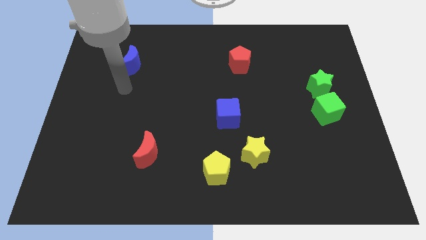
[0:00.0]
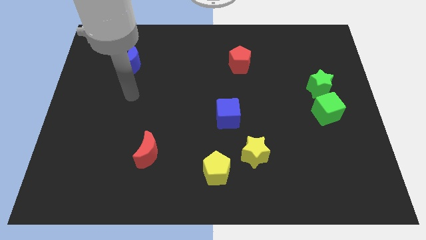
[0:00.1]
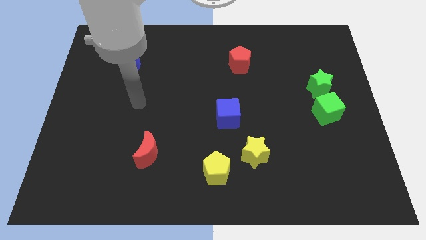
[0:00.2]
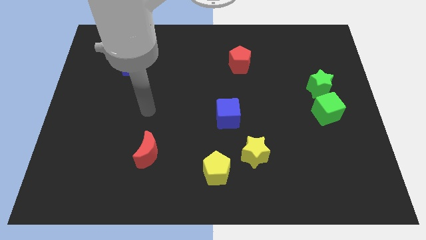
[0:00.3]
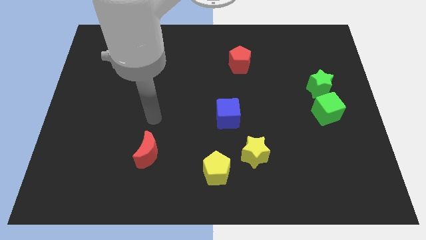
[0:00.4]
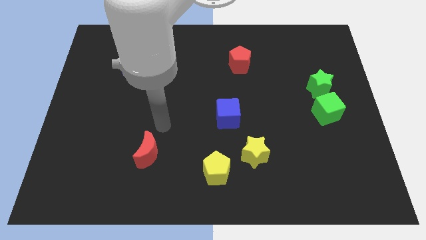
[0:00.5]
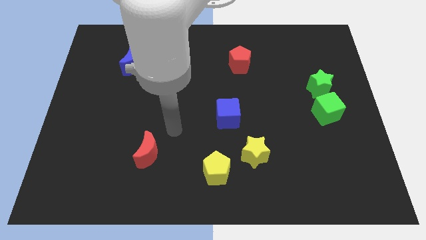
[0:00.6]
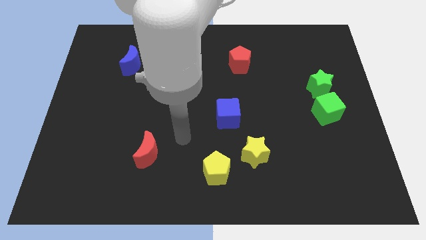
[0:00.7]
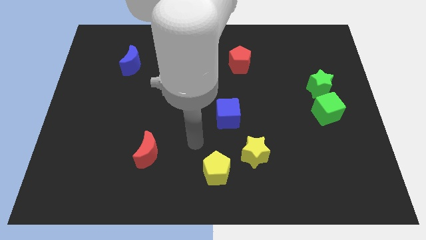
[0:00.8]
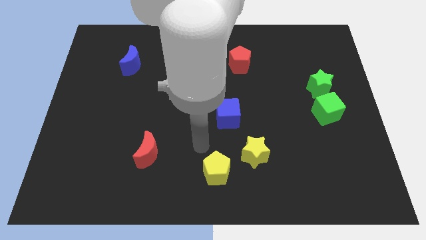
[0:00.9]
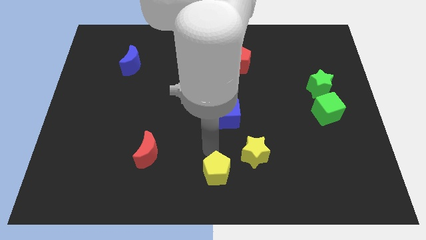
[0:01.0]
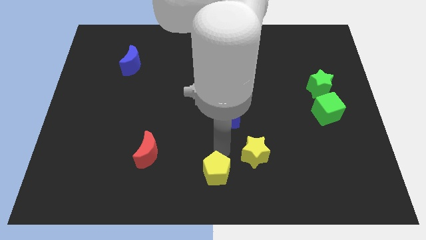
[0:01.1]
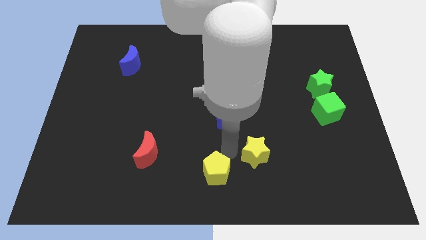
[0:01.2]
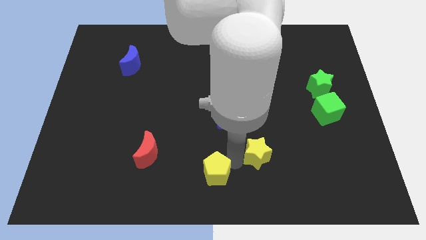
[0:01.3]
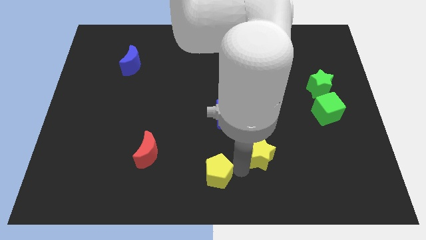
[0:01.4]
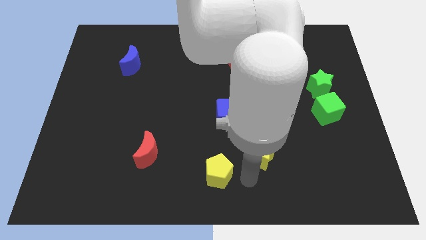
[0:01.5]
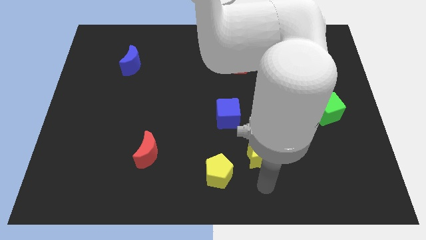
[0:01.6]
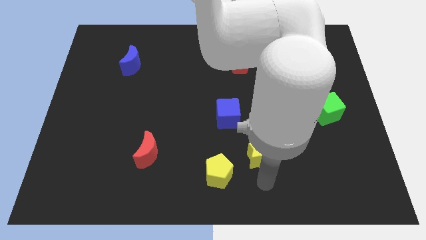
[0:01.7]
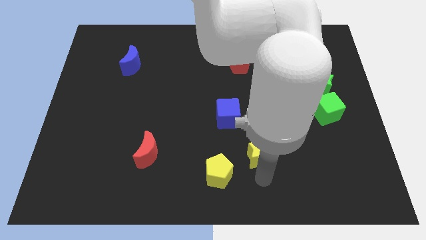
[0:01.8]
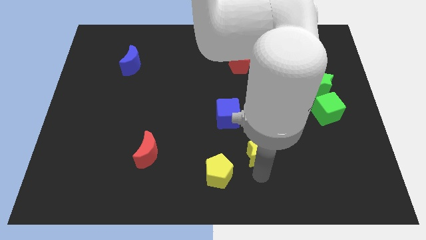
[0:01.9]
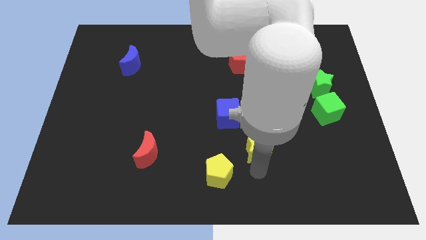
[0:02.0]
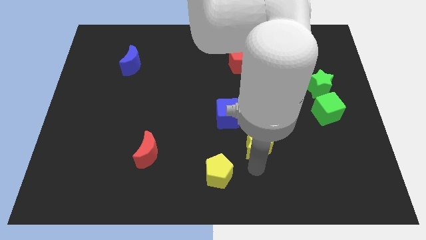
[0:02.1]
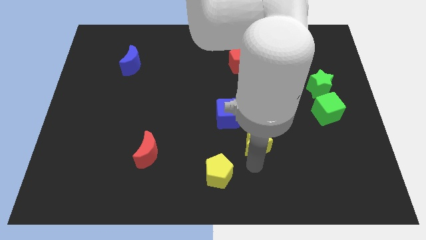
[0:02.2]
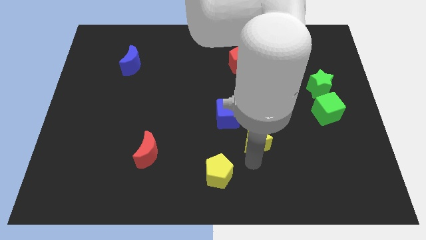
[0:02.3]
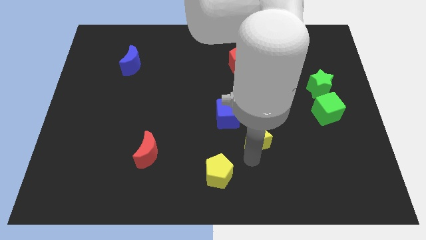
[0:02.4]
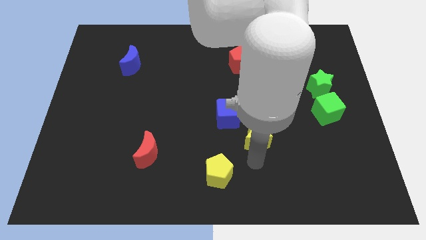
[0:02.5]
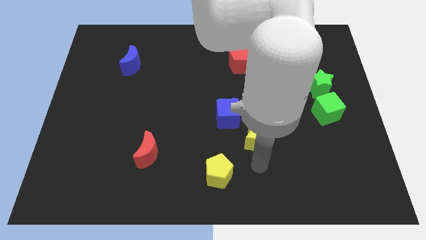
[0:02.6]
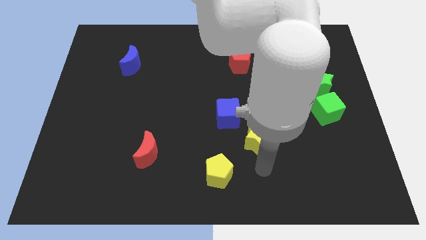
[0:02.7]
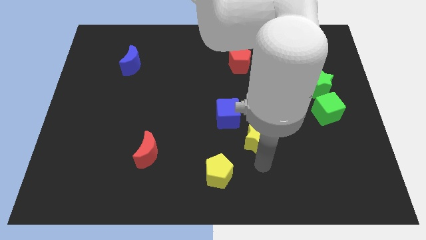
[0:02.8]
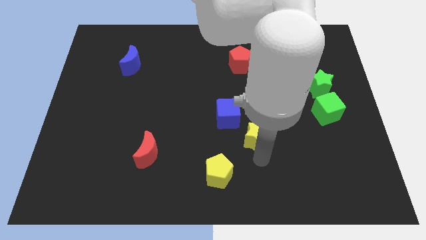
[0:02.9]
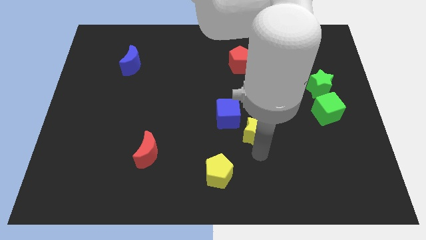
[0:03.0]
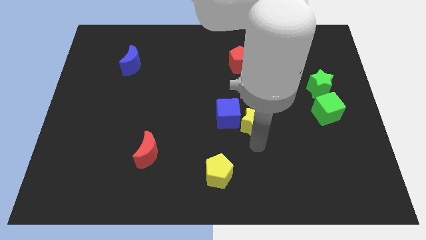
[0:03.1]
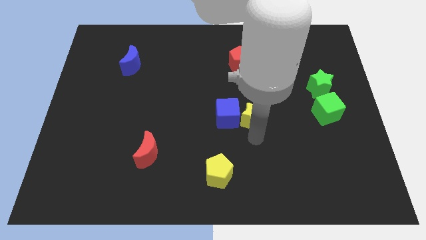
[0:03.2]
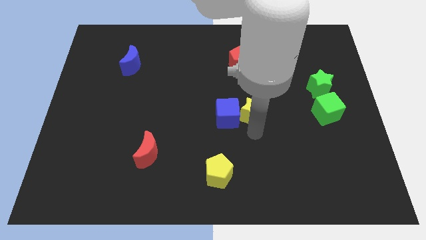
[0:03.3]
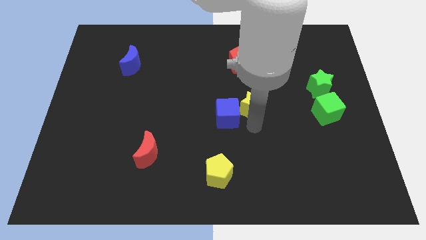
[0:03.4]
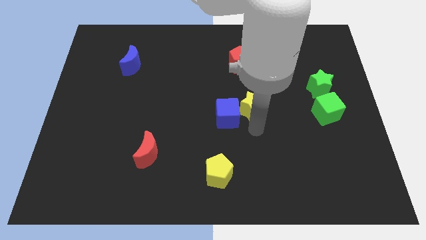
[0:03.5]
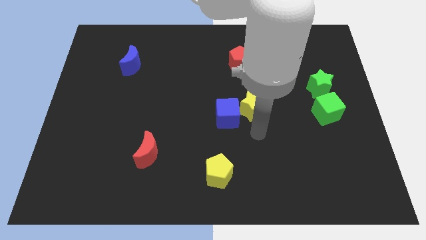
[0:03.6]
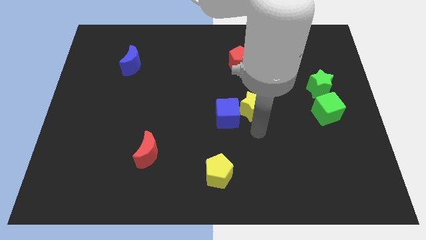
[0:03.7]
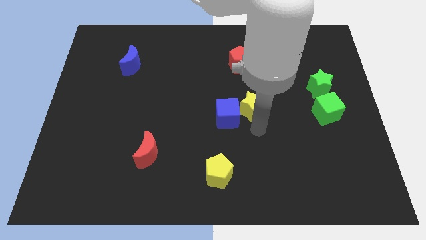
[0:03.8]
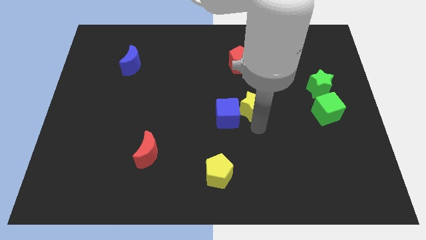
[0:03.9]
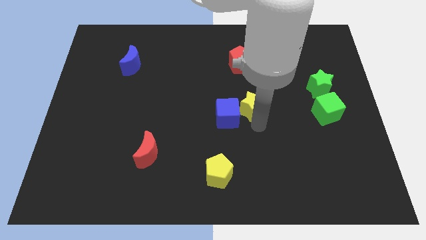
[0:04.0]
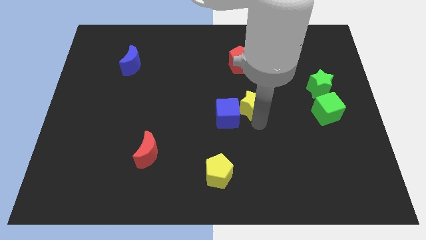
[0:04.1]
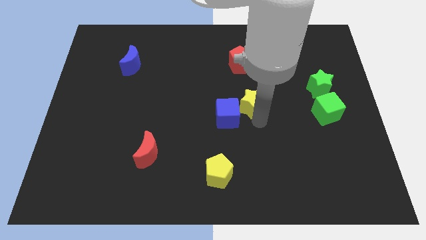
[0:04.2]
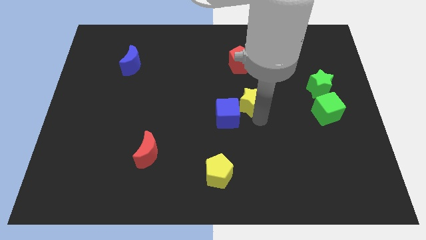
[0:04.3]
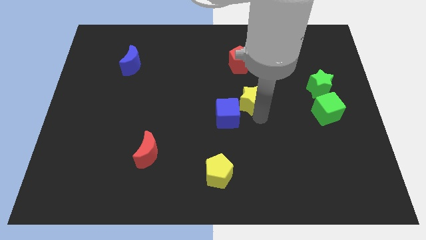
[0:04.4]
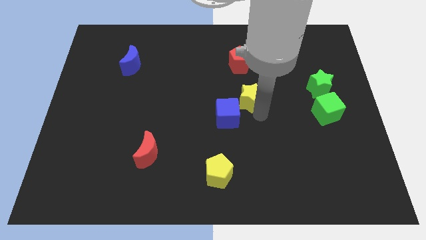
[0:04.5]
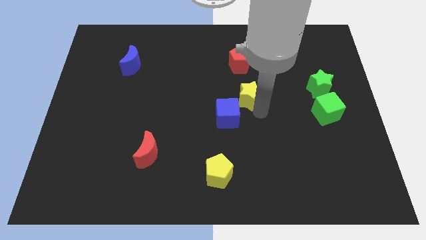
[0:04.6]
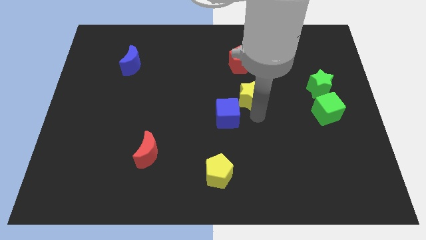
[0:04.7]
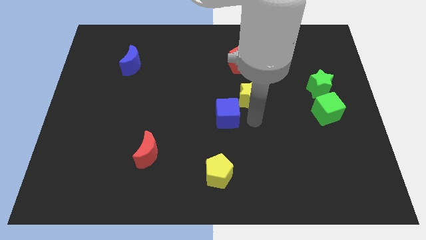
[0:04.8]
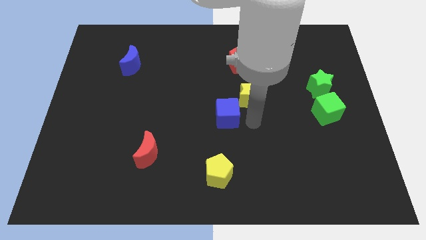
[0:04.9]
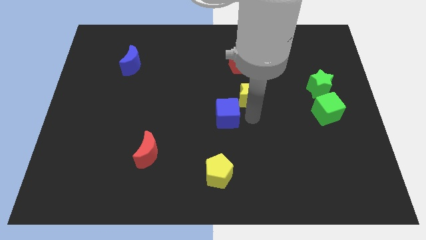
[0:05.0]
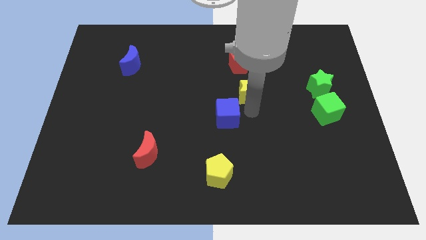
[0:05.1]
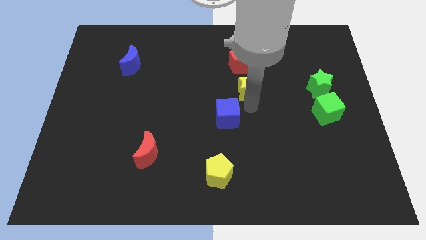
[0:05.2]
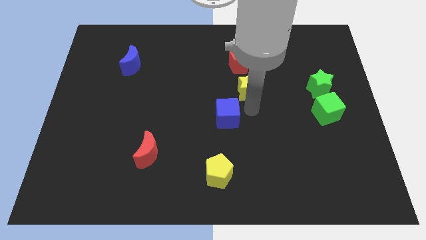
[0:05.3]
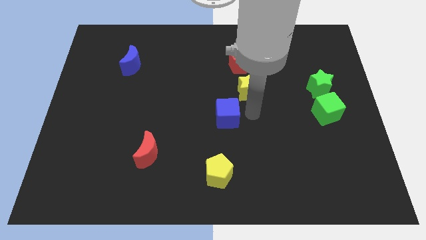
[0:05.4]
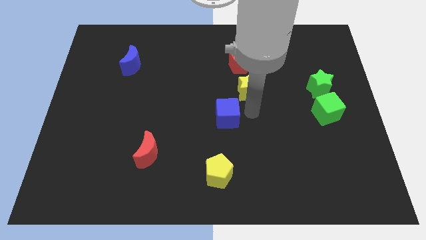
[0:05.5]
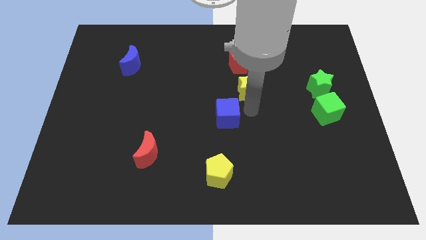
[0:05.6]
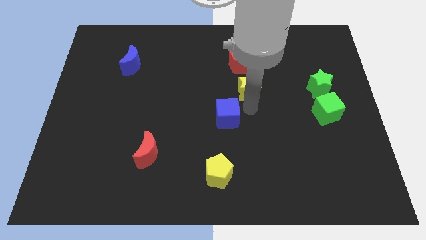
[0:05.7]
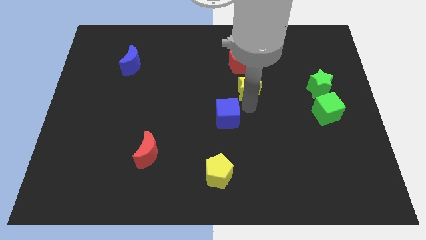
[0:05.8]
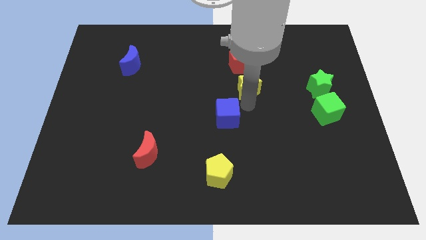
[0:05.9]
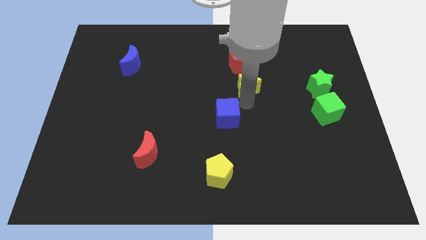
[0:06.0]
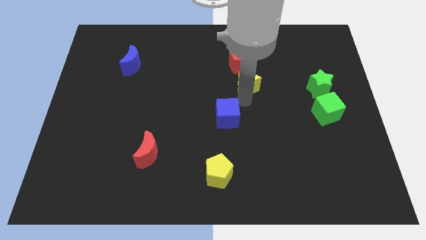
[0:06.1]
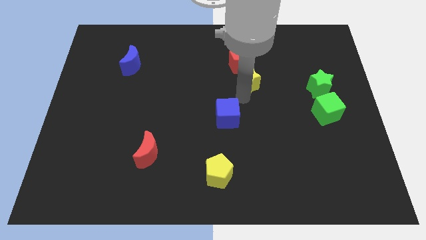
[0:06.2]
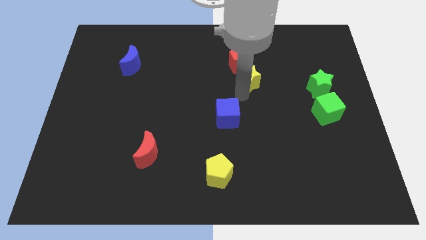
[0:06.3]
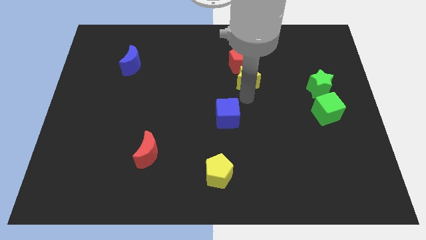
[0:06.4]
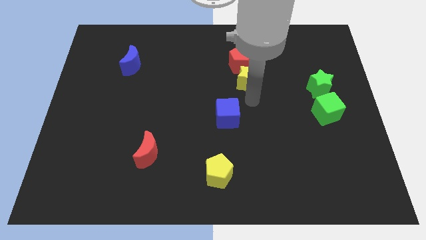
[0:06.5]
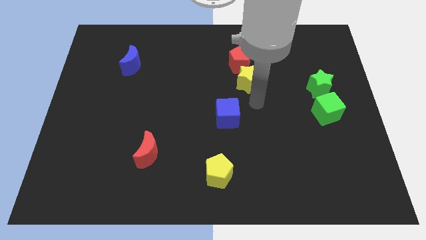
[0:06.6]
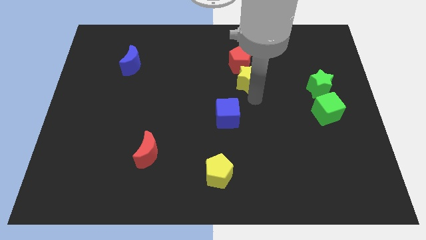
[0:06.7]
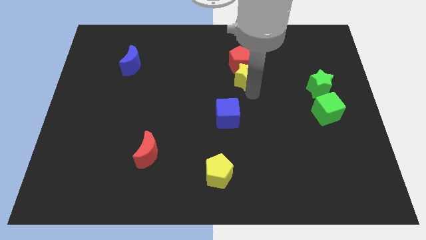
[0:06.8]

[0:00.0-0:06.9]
slide the yellow star next to the red pentagon
